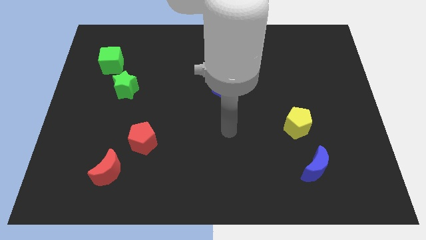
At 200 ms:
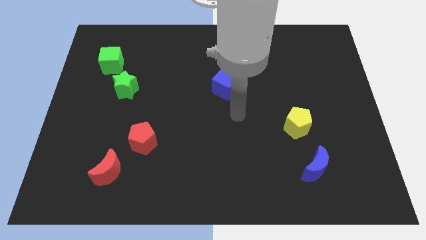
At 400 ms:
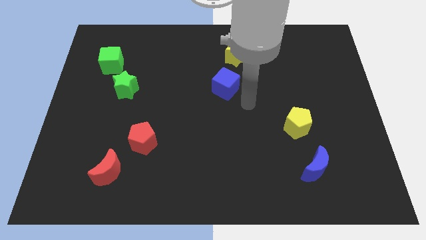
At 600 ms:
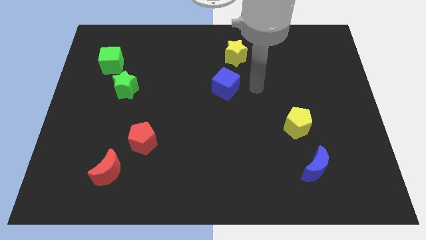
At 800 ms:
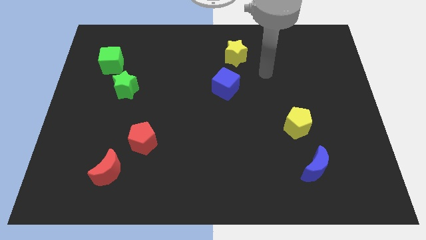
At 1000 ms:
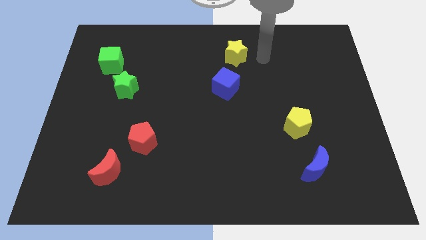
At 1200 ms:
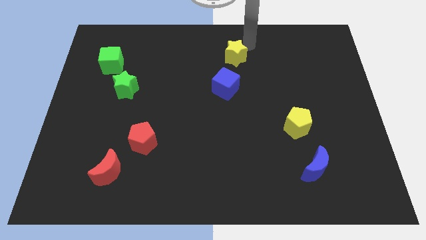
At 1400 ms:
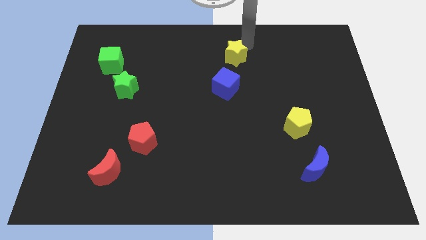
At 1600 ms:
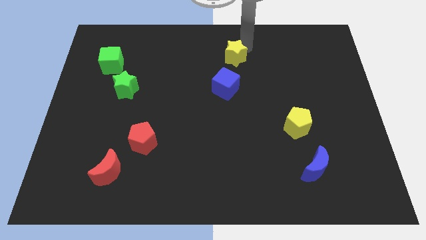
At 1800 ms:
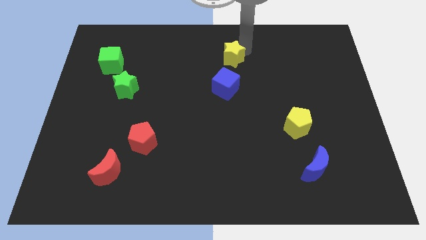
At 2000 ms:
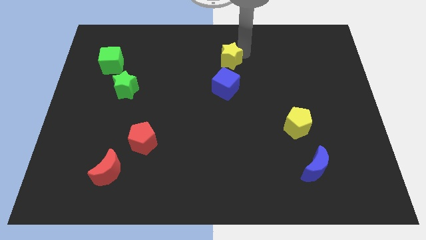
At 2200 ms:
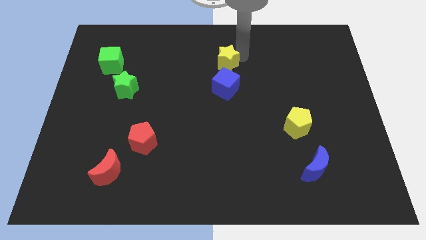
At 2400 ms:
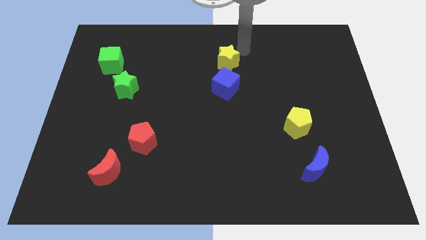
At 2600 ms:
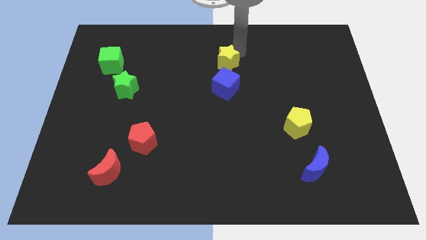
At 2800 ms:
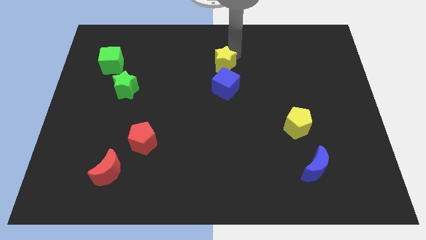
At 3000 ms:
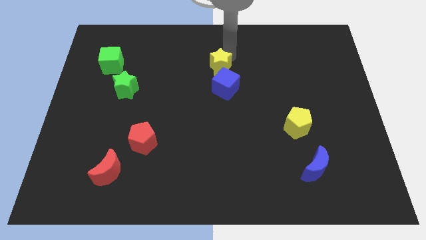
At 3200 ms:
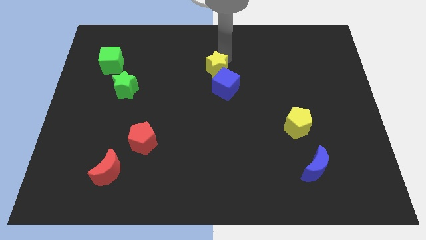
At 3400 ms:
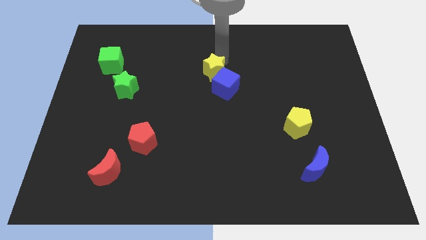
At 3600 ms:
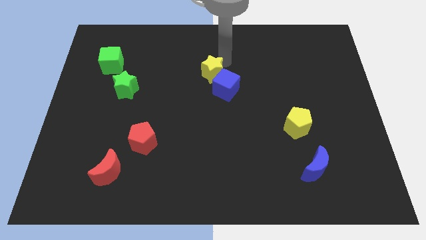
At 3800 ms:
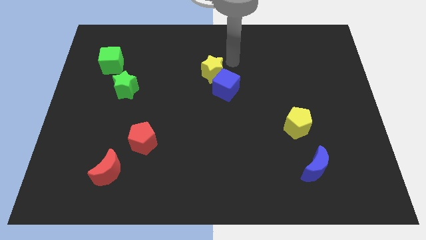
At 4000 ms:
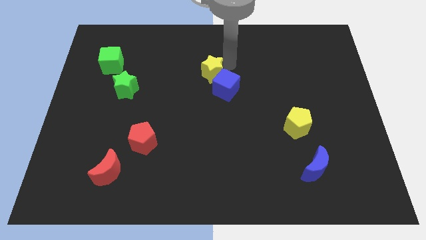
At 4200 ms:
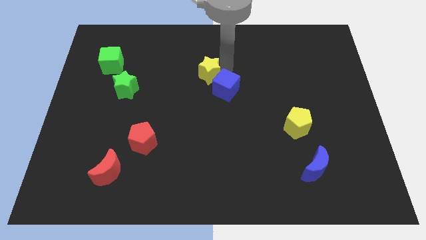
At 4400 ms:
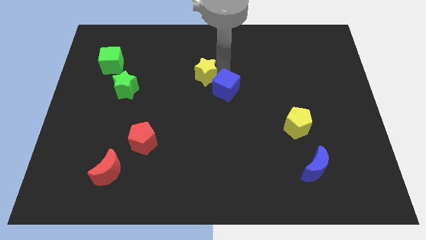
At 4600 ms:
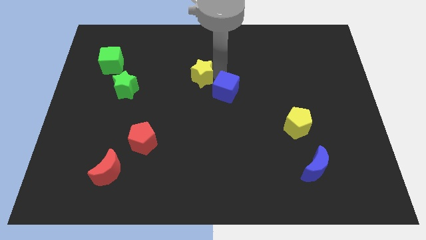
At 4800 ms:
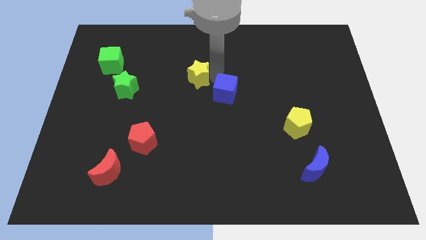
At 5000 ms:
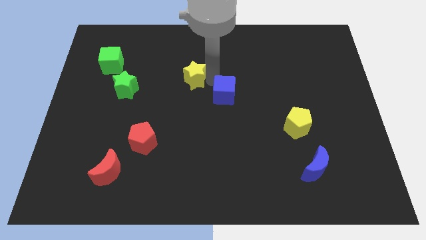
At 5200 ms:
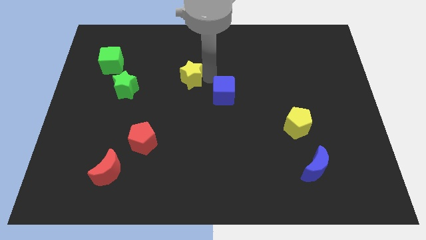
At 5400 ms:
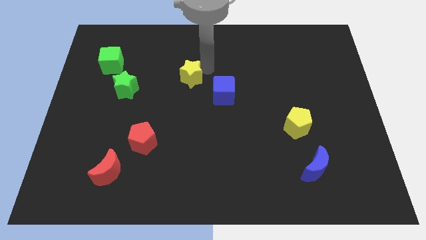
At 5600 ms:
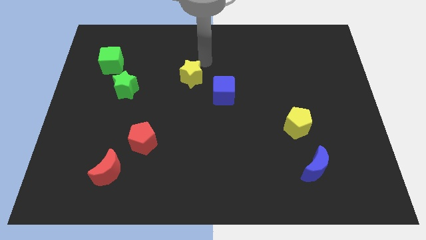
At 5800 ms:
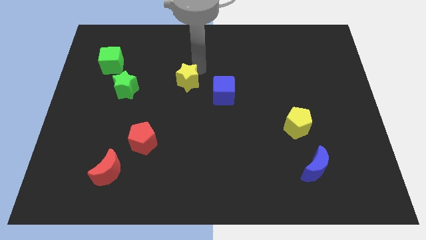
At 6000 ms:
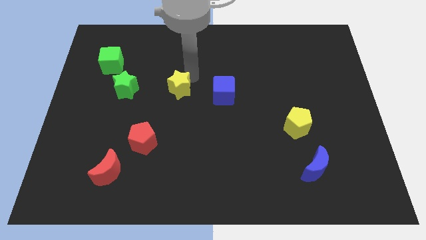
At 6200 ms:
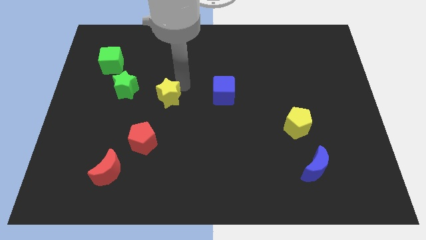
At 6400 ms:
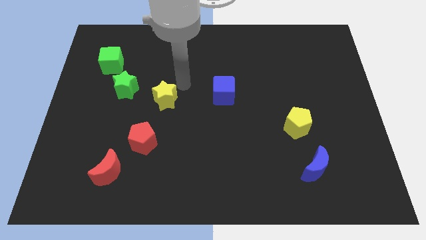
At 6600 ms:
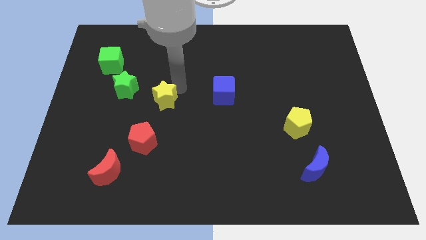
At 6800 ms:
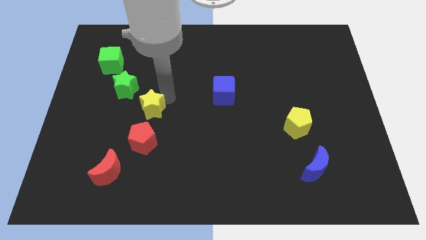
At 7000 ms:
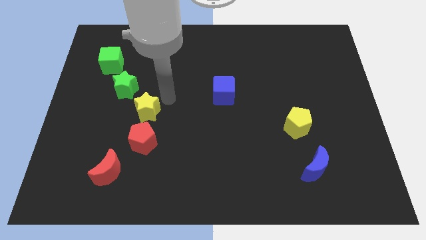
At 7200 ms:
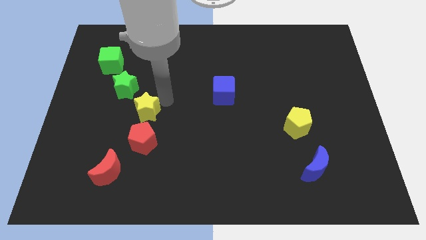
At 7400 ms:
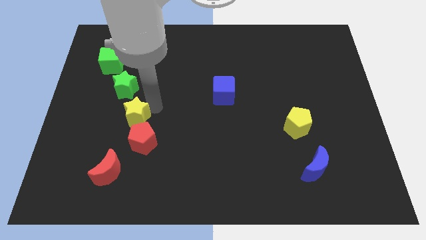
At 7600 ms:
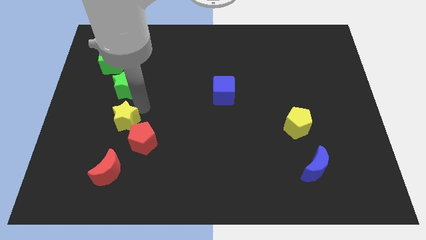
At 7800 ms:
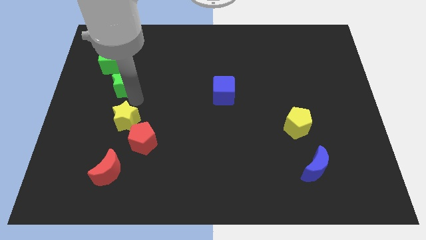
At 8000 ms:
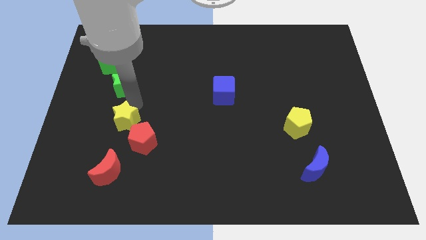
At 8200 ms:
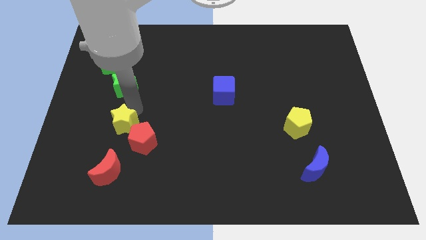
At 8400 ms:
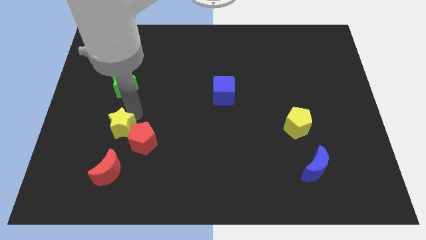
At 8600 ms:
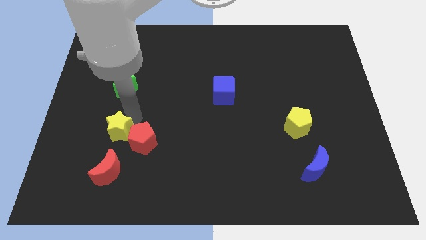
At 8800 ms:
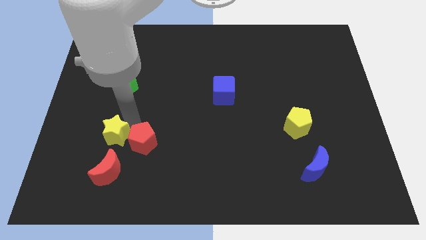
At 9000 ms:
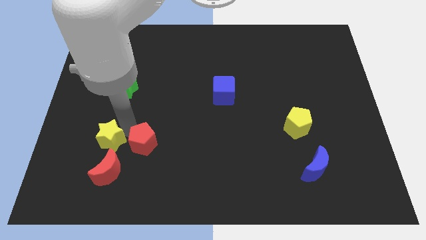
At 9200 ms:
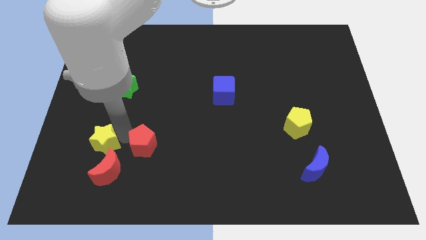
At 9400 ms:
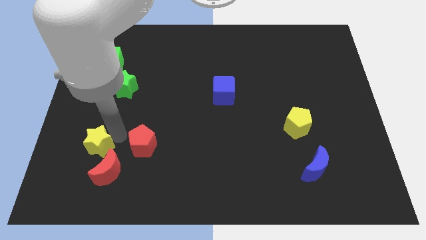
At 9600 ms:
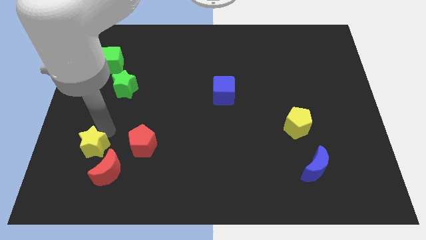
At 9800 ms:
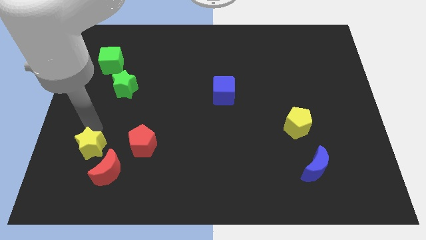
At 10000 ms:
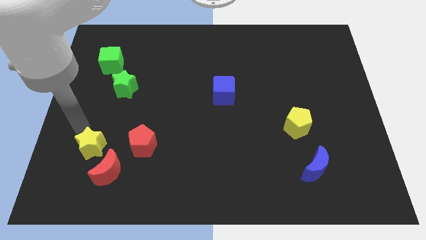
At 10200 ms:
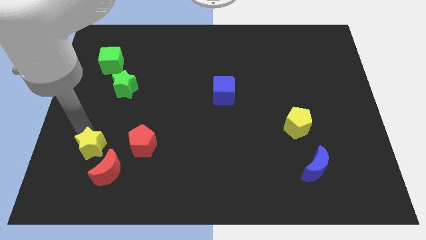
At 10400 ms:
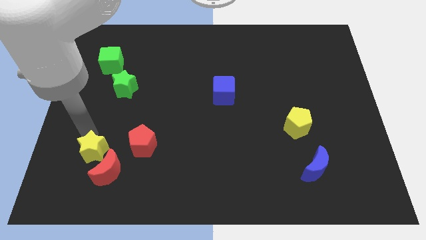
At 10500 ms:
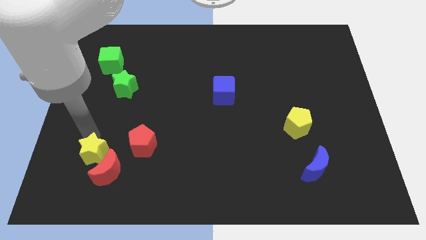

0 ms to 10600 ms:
put the yellow star close to the red moon

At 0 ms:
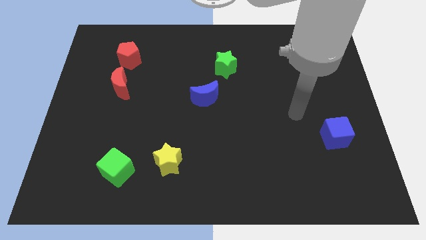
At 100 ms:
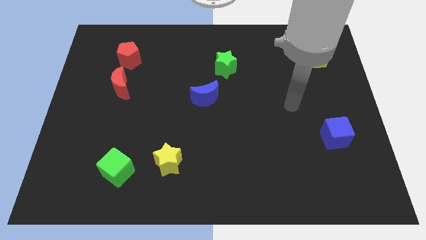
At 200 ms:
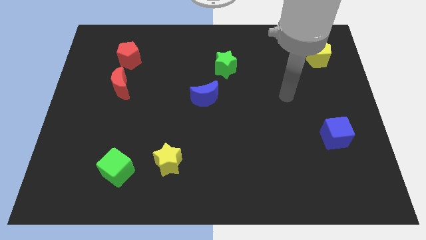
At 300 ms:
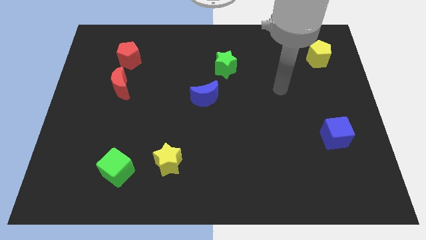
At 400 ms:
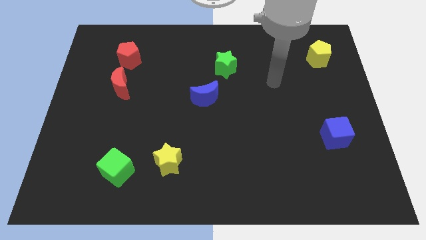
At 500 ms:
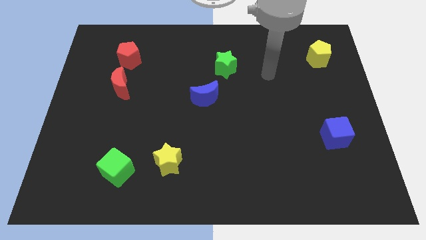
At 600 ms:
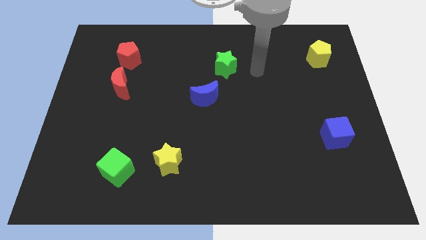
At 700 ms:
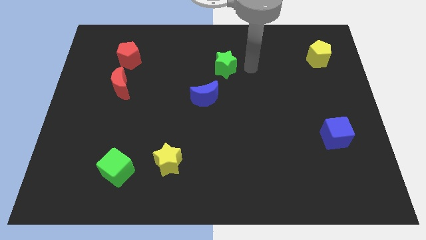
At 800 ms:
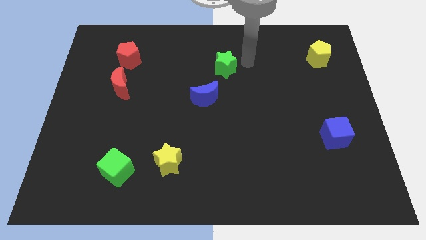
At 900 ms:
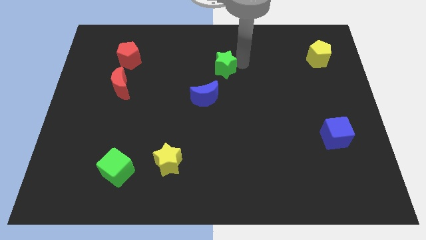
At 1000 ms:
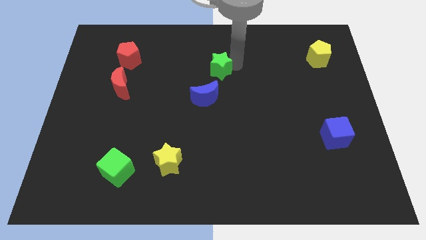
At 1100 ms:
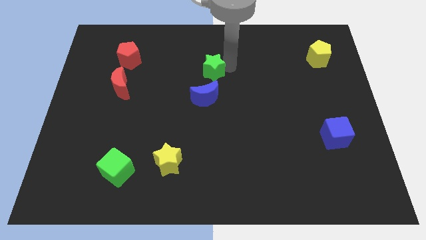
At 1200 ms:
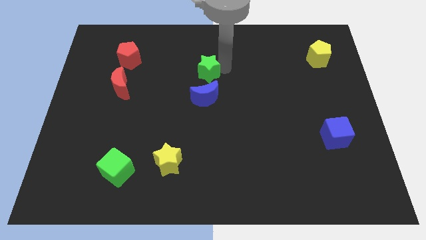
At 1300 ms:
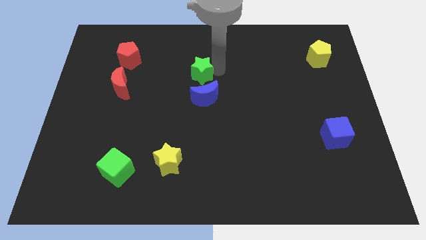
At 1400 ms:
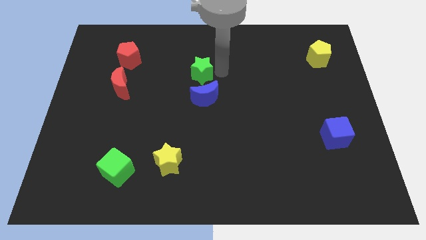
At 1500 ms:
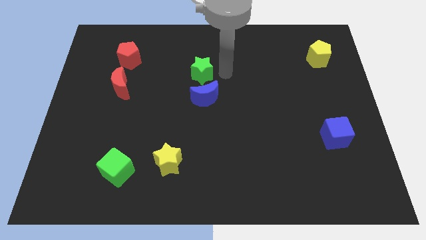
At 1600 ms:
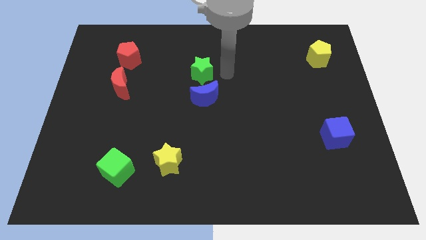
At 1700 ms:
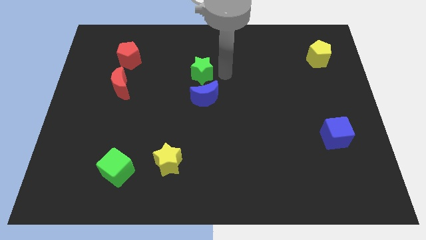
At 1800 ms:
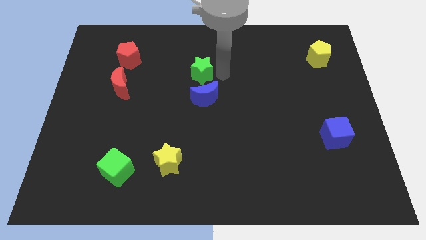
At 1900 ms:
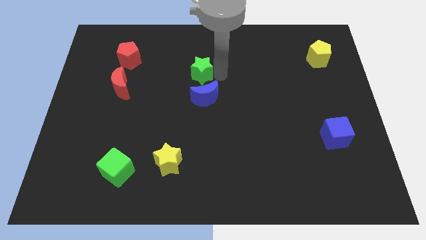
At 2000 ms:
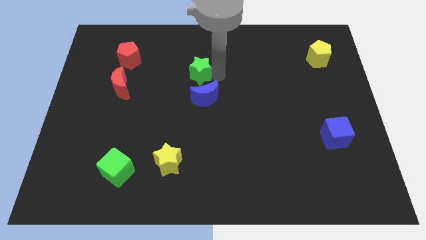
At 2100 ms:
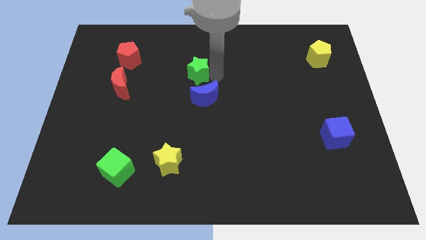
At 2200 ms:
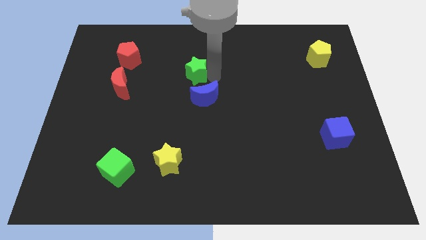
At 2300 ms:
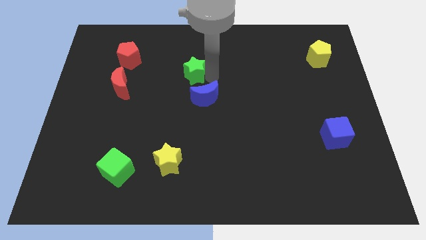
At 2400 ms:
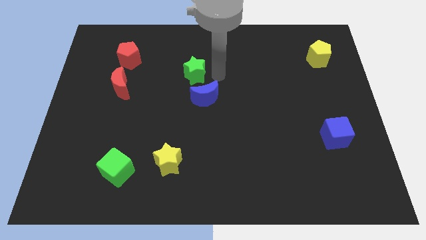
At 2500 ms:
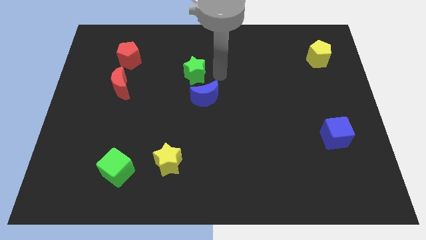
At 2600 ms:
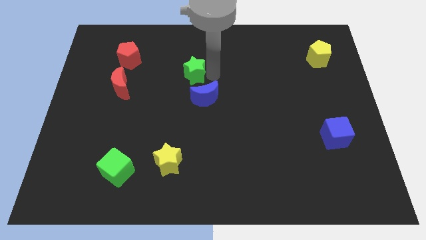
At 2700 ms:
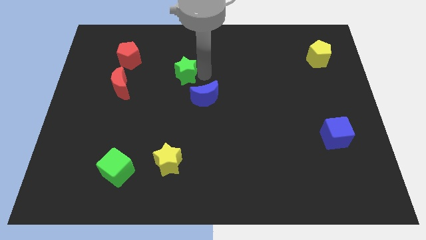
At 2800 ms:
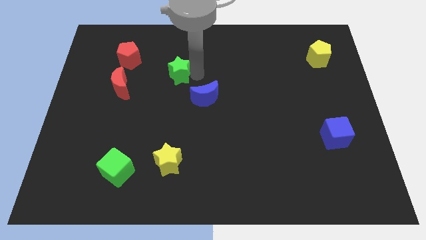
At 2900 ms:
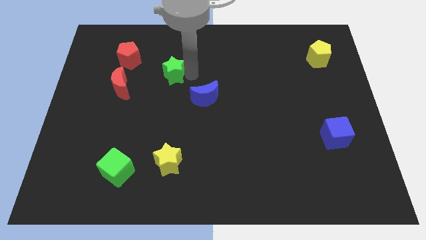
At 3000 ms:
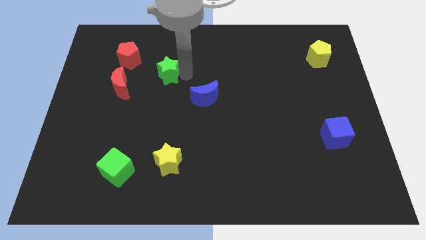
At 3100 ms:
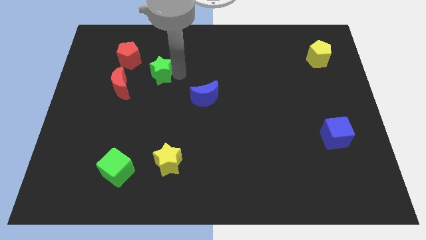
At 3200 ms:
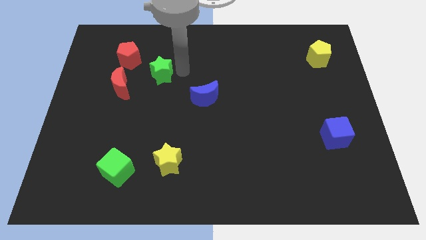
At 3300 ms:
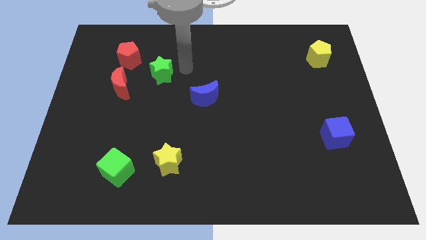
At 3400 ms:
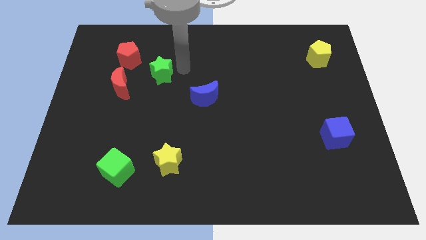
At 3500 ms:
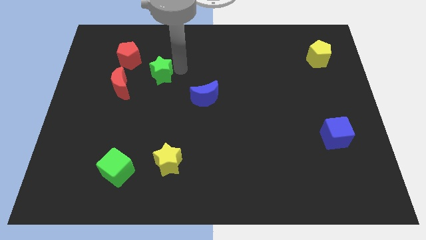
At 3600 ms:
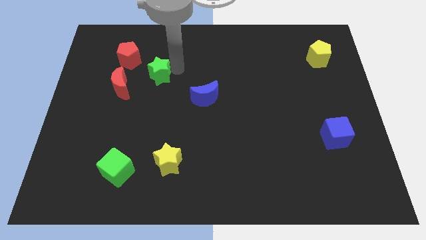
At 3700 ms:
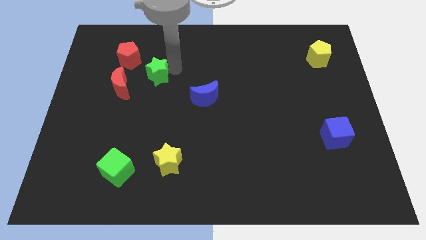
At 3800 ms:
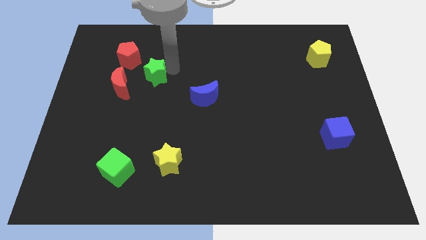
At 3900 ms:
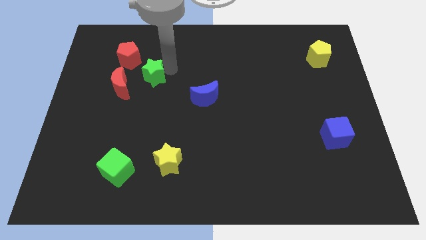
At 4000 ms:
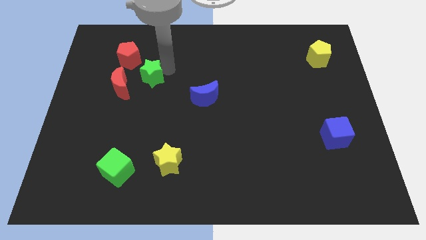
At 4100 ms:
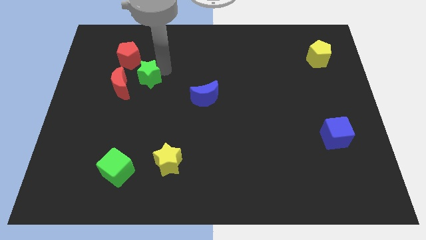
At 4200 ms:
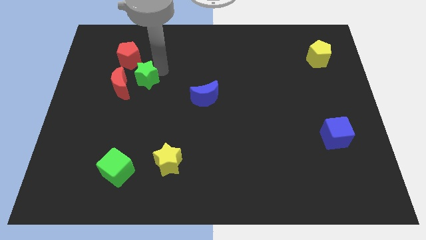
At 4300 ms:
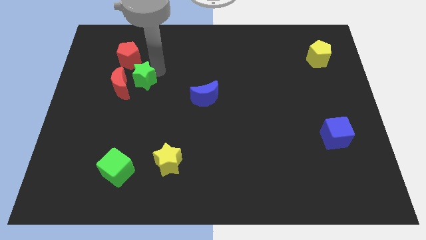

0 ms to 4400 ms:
move the green star towards the red moon
